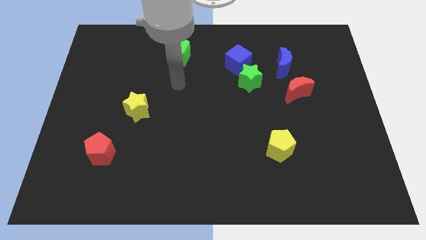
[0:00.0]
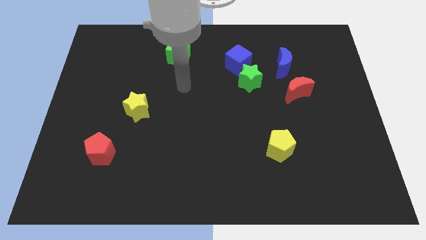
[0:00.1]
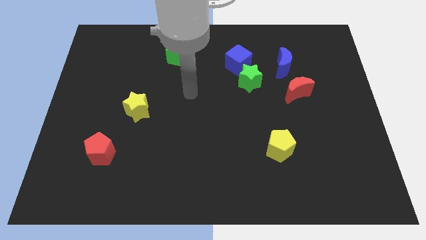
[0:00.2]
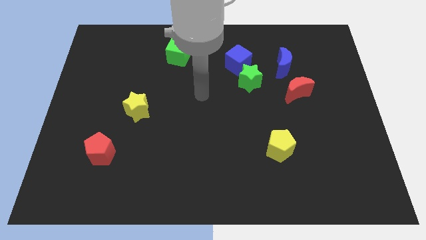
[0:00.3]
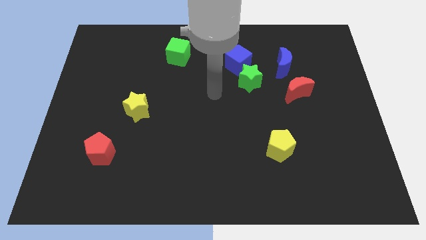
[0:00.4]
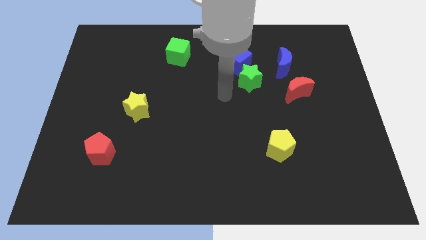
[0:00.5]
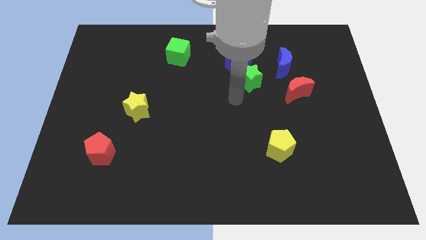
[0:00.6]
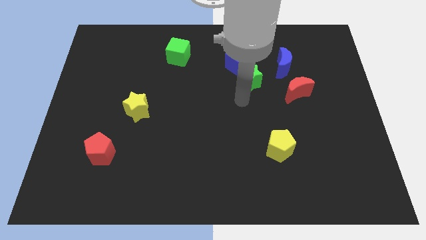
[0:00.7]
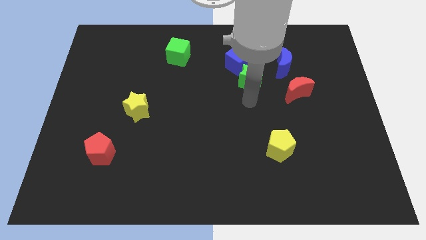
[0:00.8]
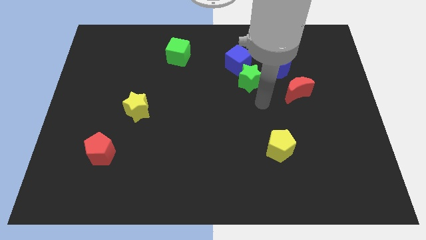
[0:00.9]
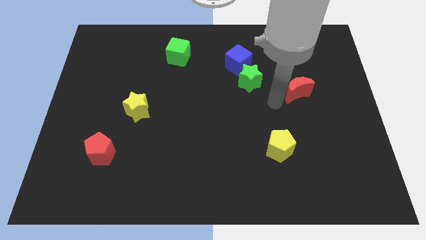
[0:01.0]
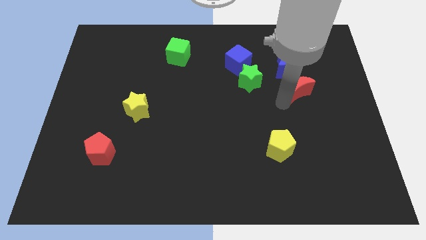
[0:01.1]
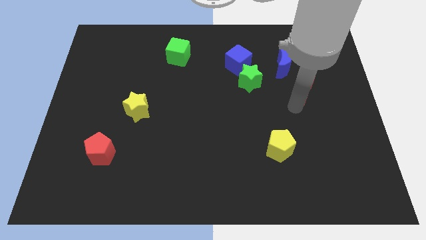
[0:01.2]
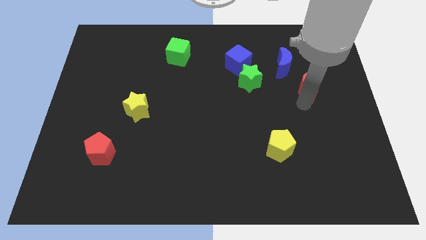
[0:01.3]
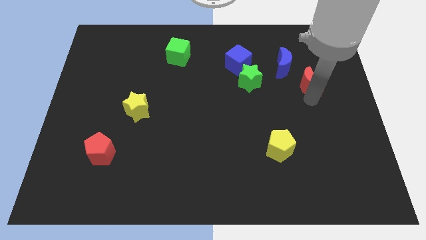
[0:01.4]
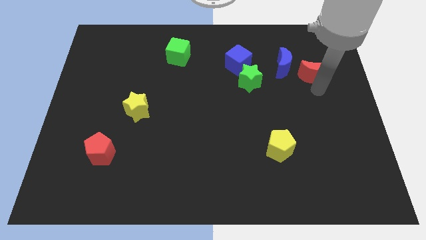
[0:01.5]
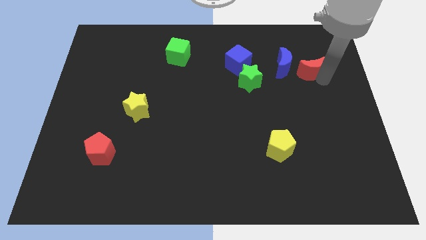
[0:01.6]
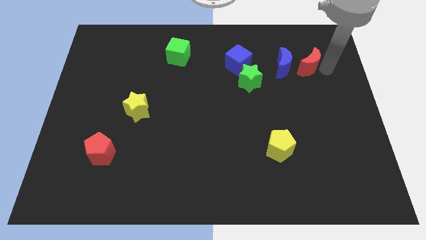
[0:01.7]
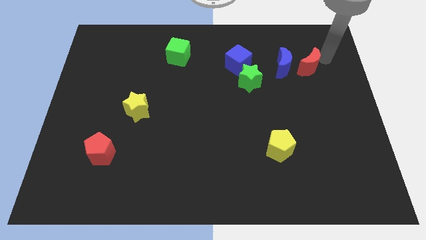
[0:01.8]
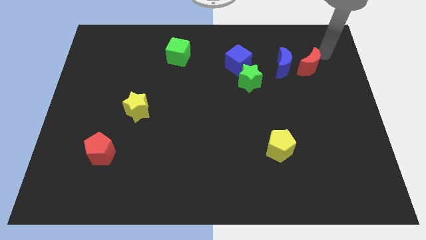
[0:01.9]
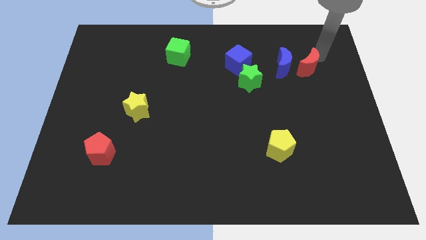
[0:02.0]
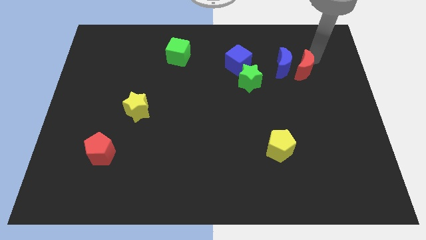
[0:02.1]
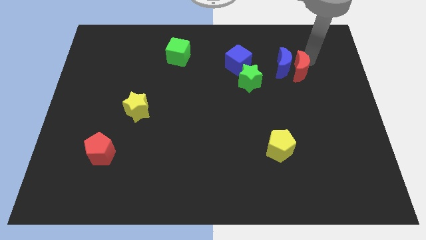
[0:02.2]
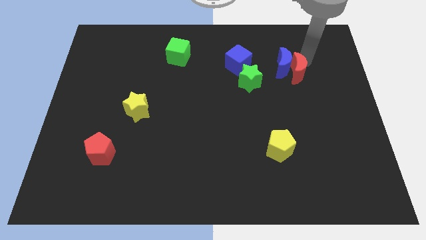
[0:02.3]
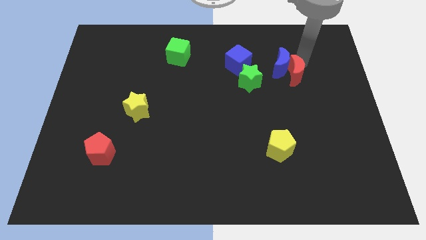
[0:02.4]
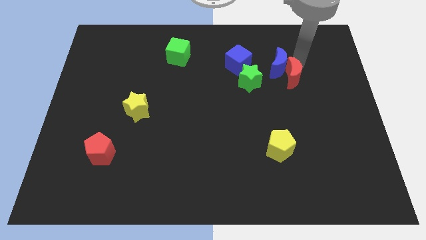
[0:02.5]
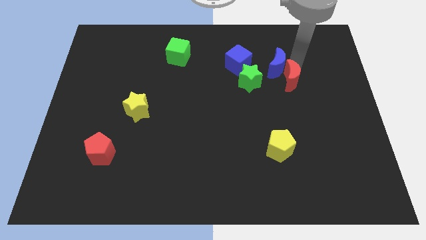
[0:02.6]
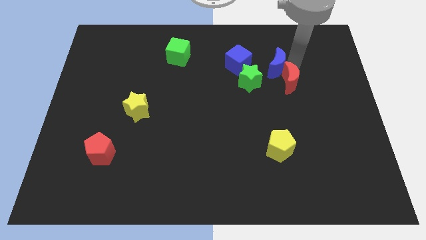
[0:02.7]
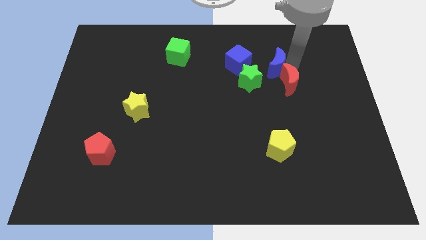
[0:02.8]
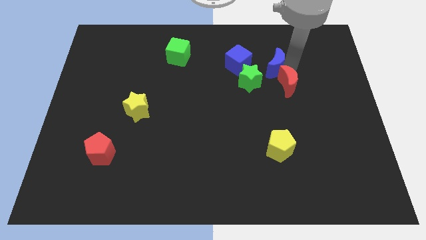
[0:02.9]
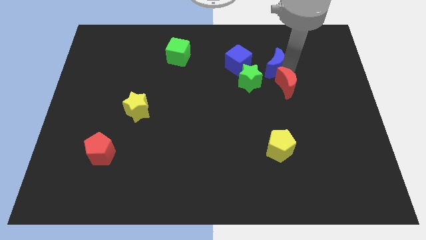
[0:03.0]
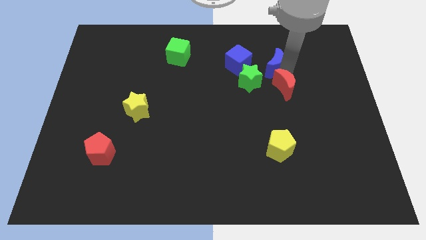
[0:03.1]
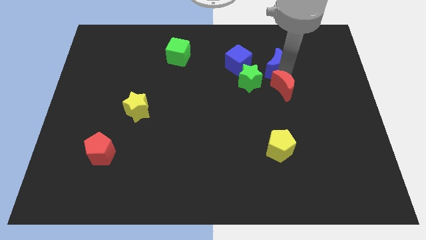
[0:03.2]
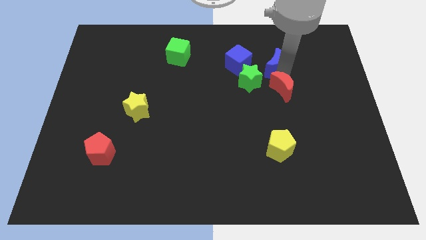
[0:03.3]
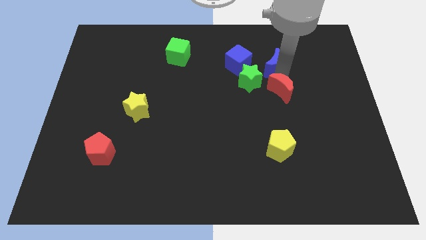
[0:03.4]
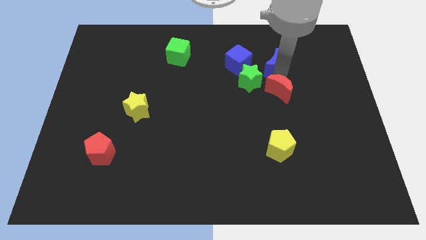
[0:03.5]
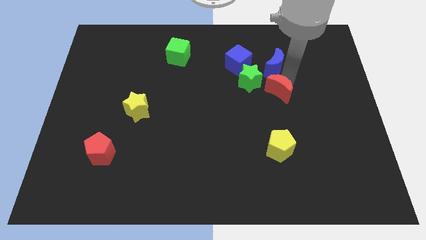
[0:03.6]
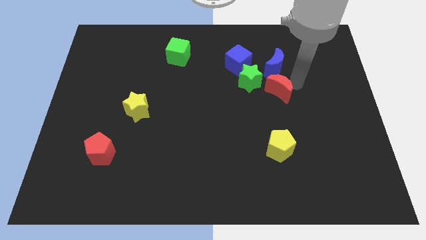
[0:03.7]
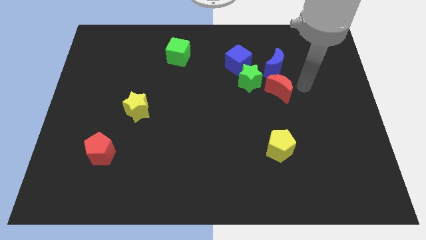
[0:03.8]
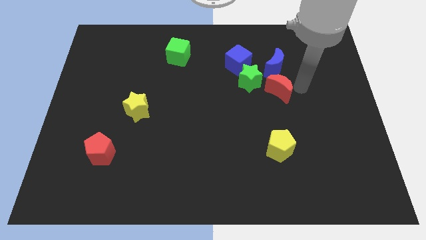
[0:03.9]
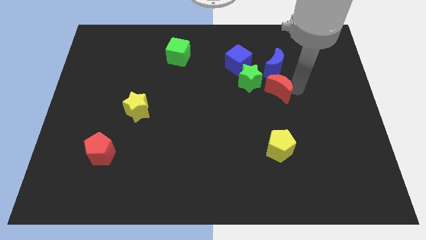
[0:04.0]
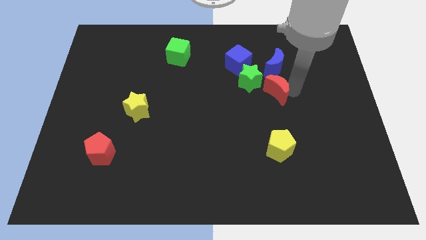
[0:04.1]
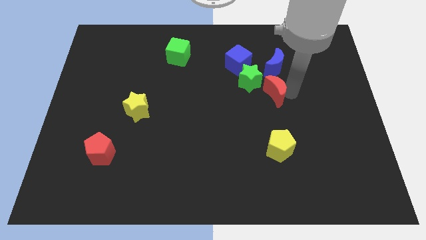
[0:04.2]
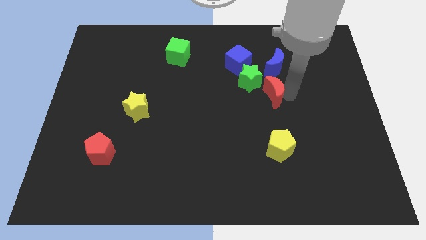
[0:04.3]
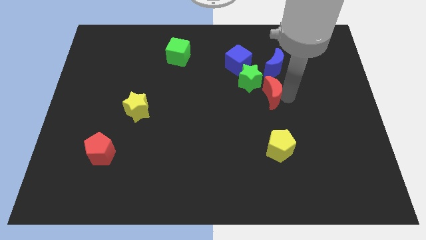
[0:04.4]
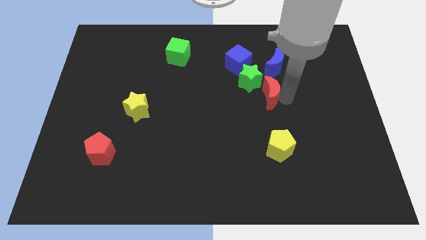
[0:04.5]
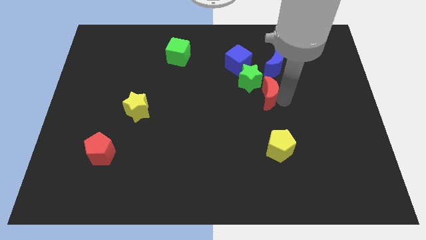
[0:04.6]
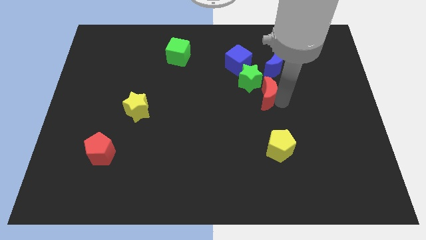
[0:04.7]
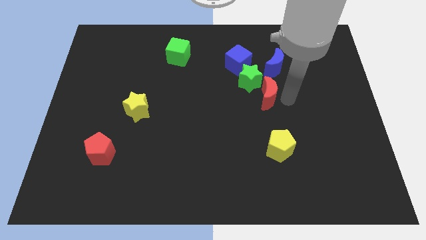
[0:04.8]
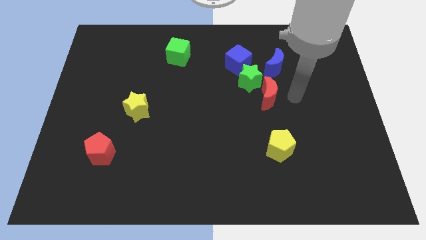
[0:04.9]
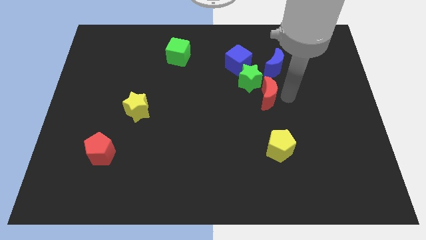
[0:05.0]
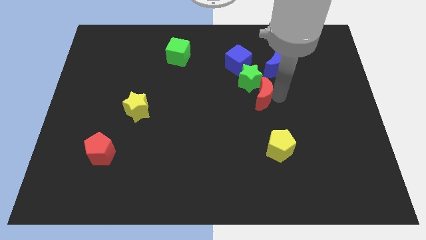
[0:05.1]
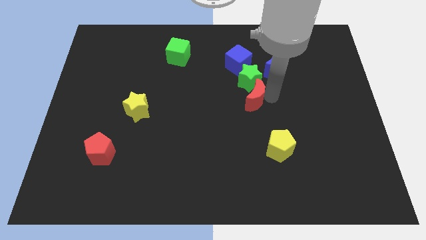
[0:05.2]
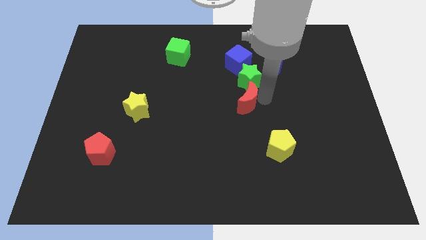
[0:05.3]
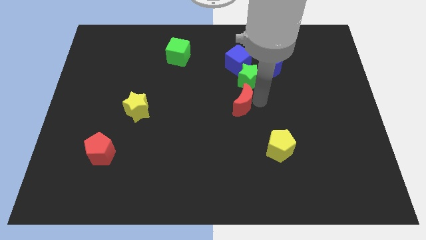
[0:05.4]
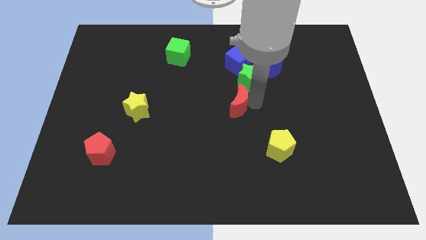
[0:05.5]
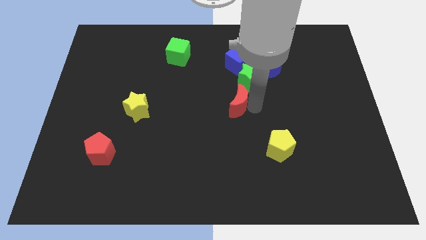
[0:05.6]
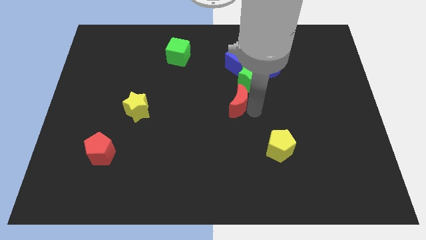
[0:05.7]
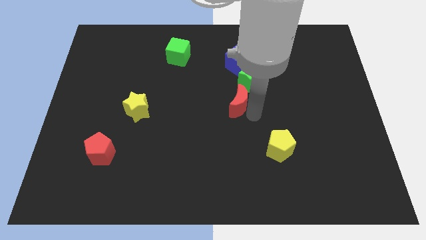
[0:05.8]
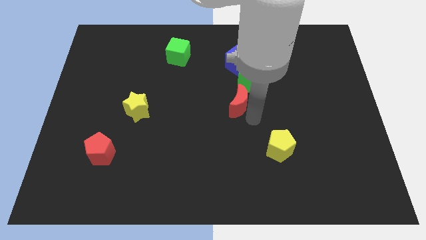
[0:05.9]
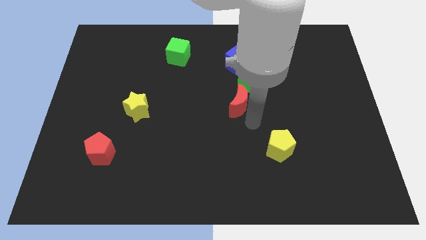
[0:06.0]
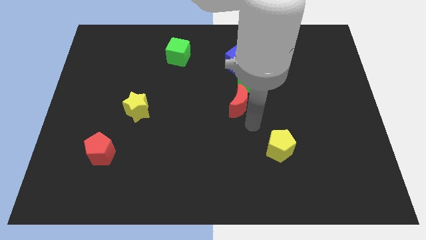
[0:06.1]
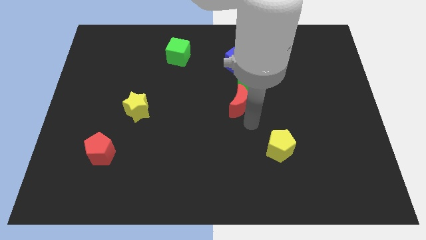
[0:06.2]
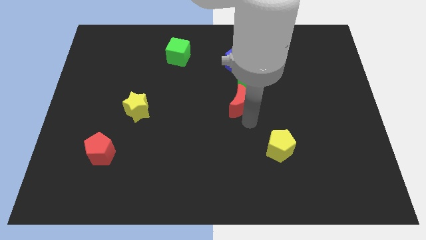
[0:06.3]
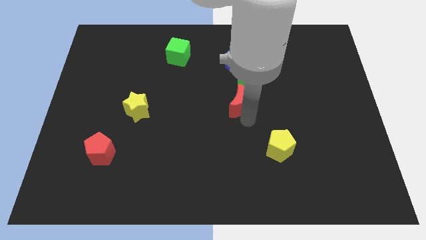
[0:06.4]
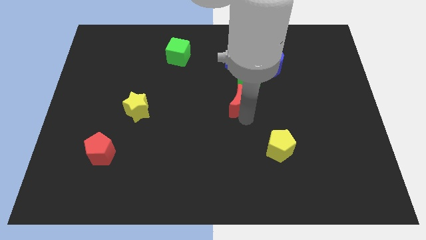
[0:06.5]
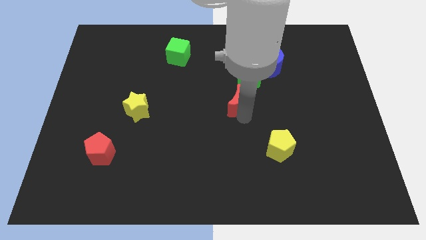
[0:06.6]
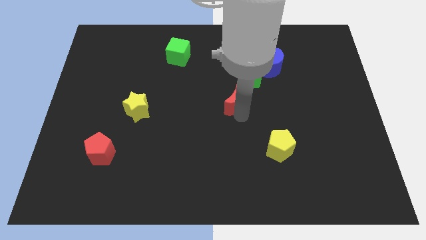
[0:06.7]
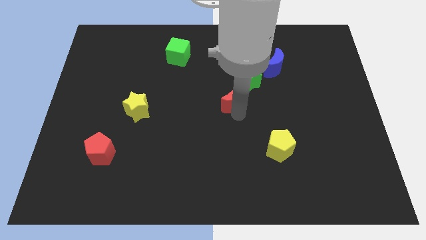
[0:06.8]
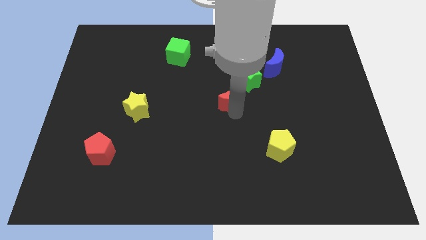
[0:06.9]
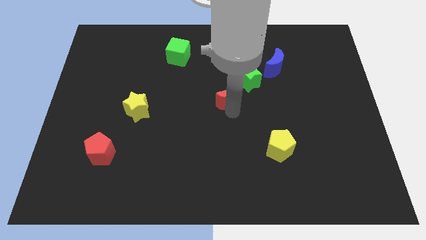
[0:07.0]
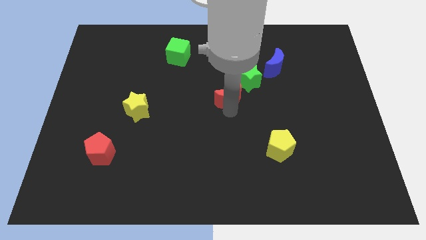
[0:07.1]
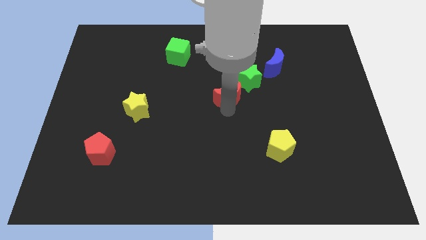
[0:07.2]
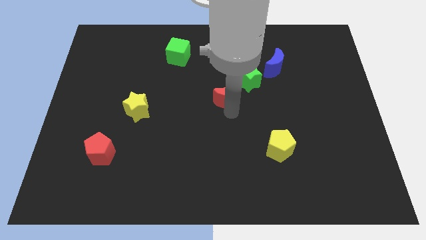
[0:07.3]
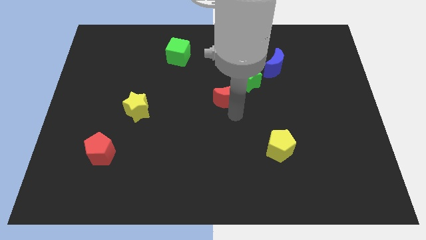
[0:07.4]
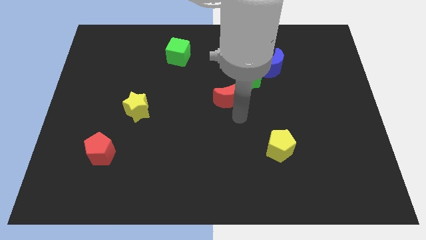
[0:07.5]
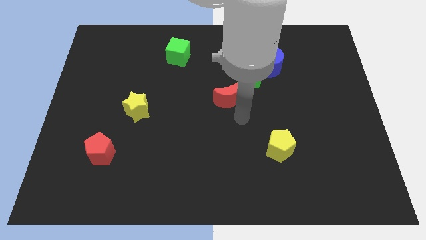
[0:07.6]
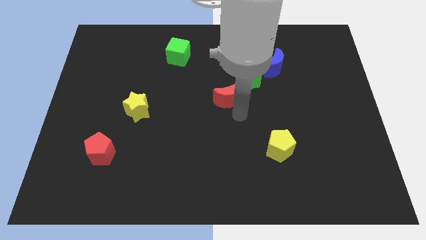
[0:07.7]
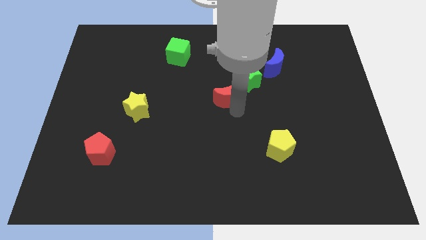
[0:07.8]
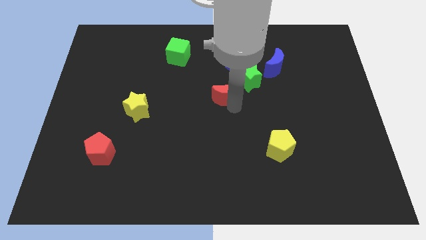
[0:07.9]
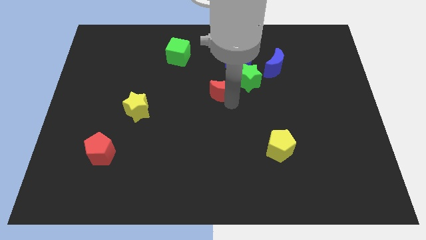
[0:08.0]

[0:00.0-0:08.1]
slide the red moon to the left of the green star
